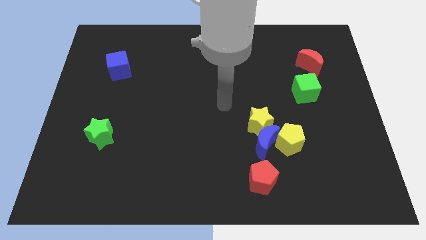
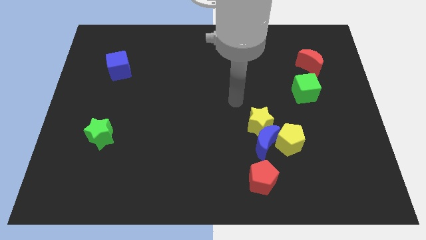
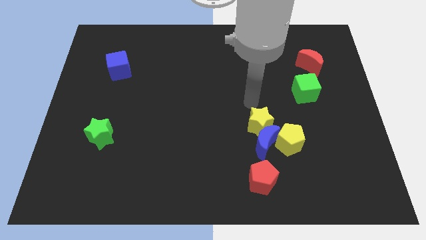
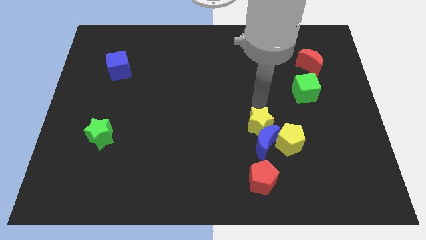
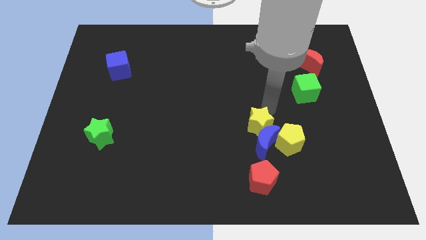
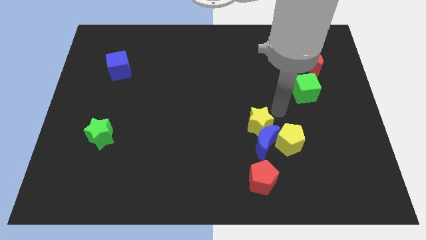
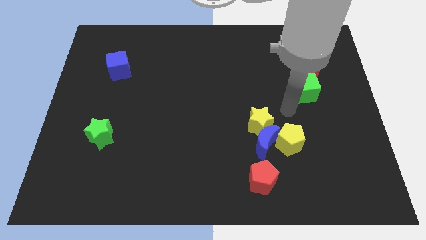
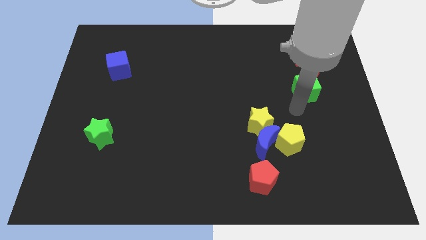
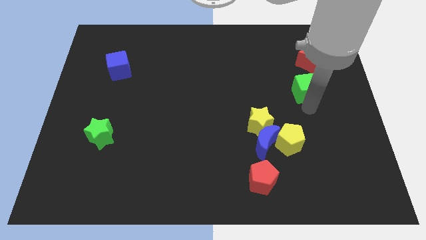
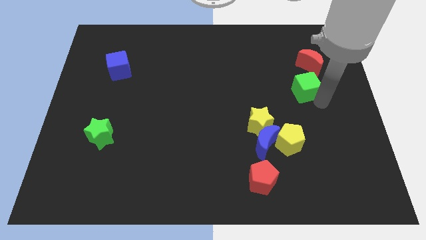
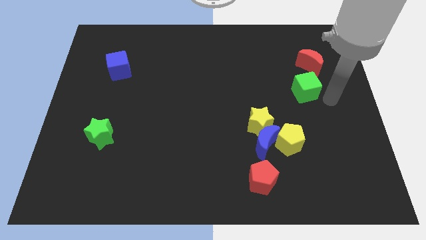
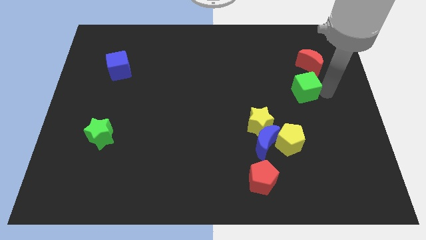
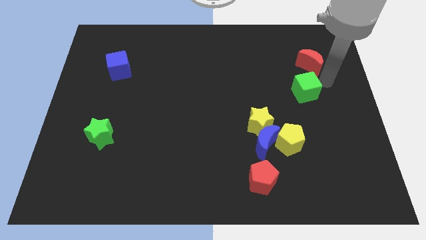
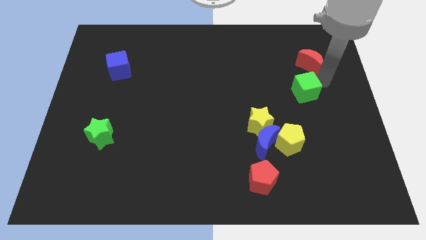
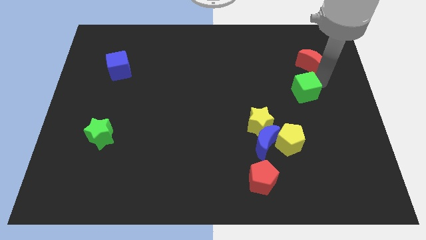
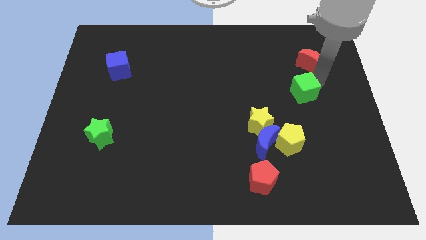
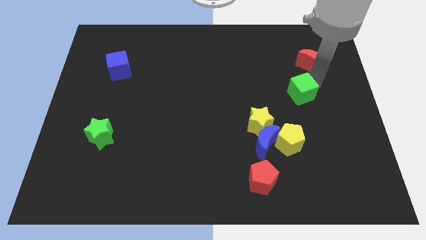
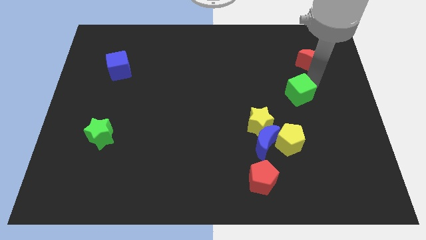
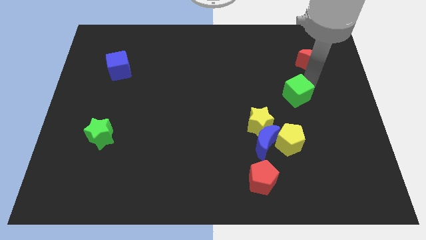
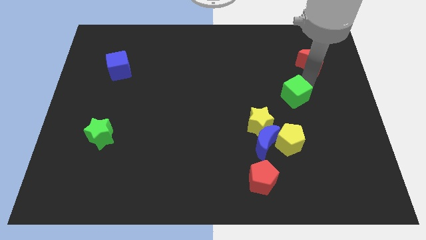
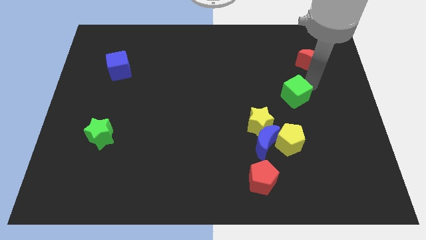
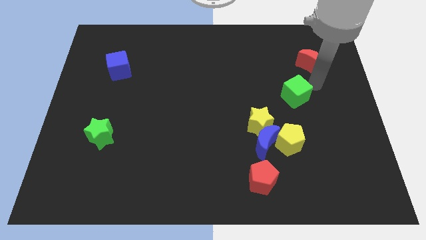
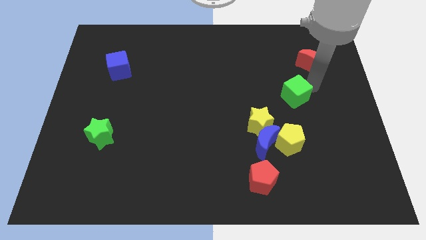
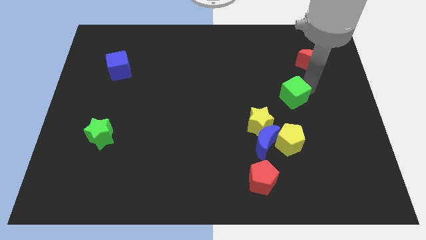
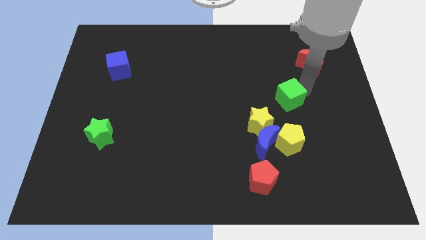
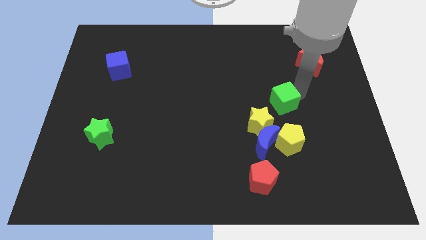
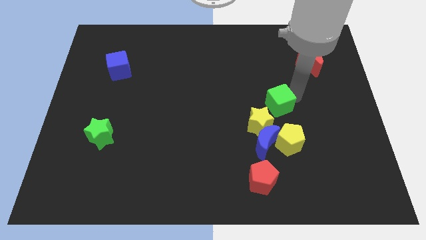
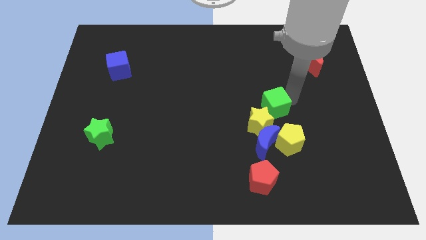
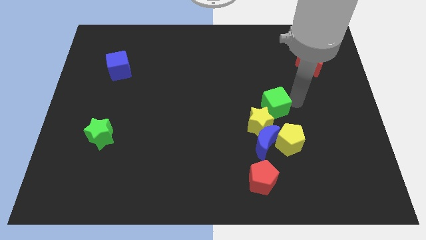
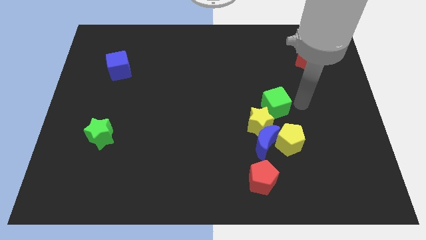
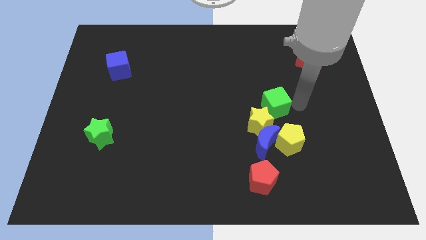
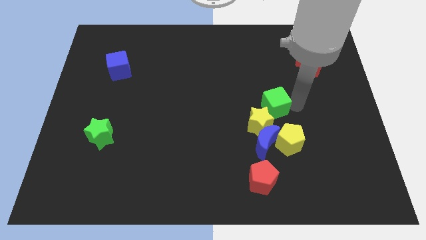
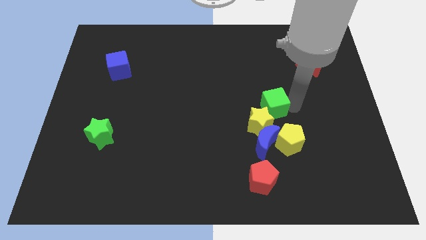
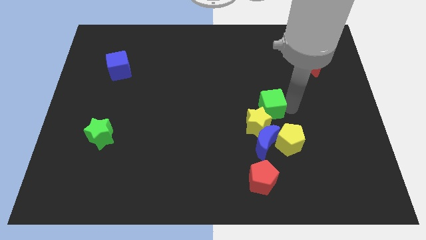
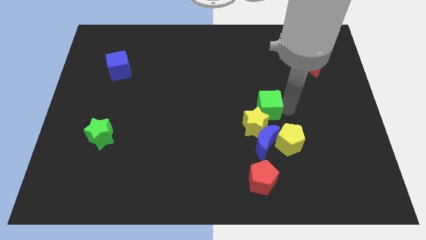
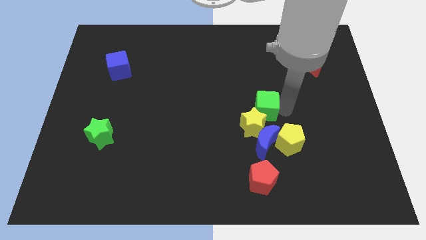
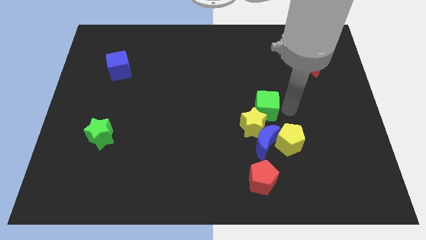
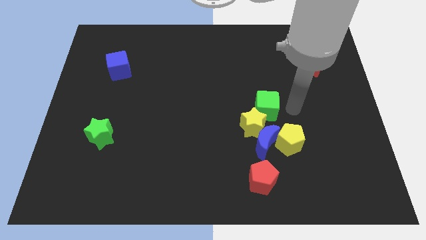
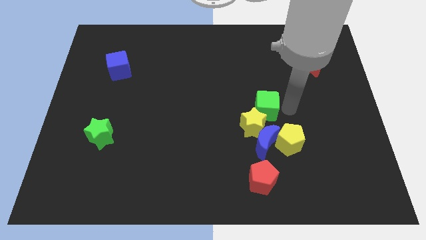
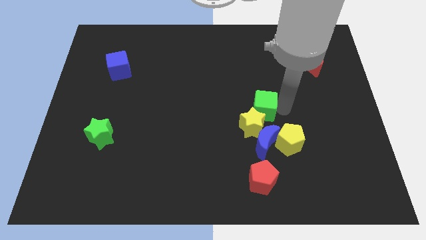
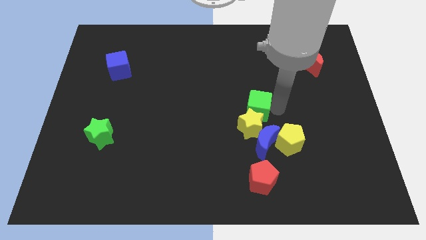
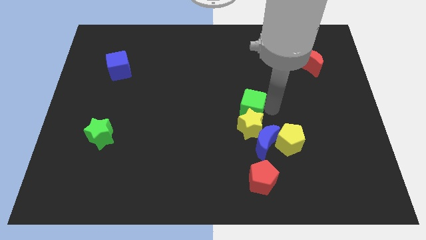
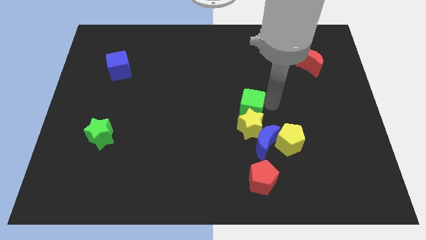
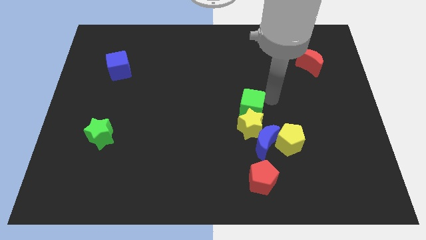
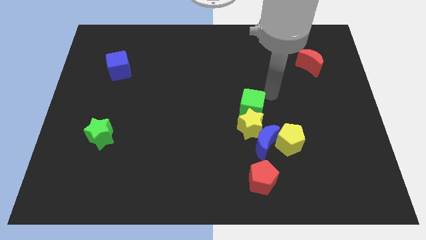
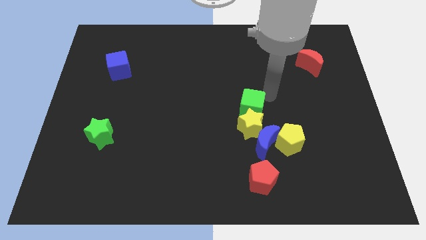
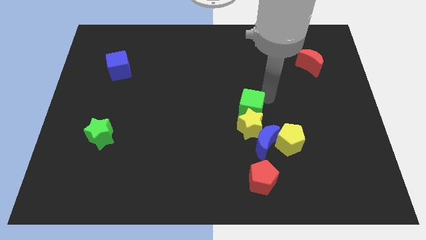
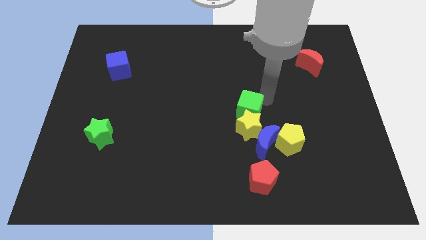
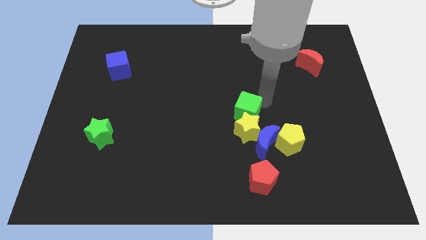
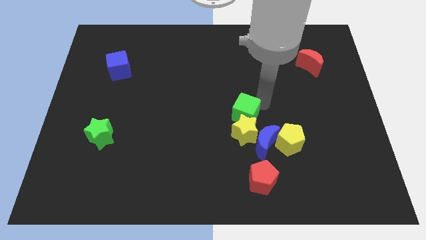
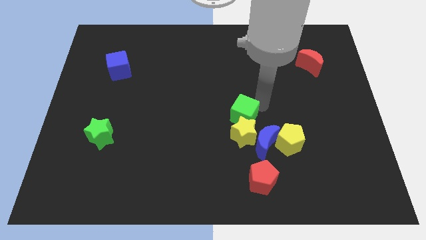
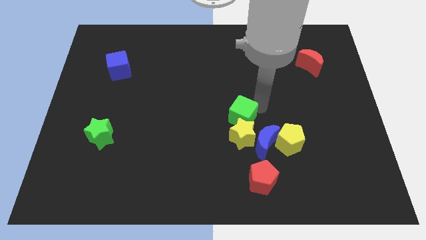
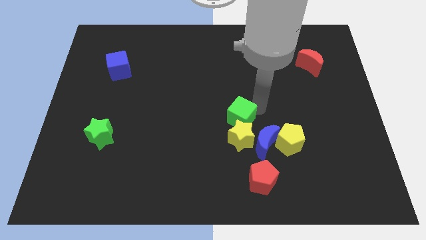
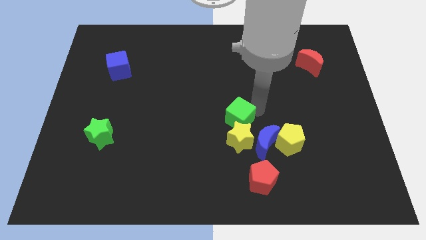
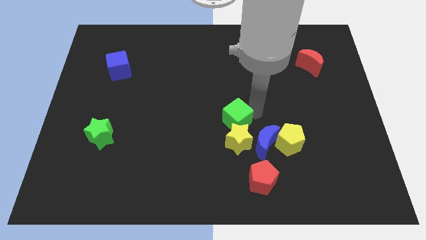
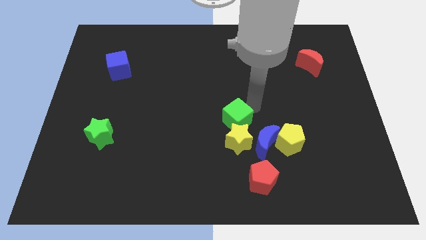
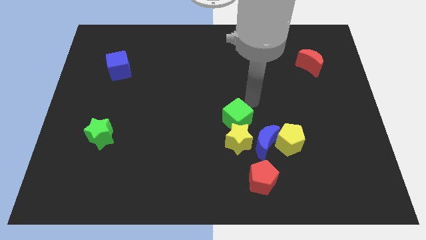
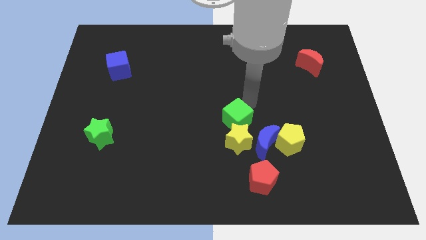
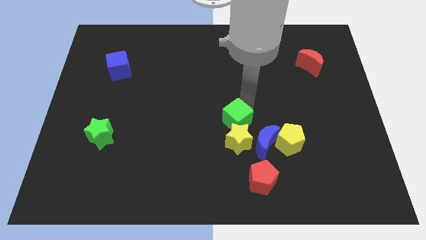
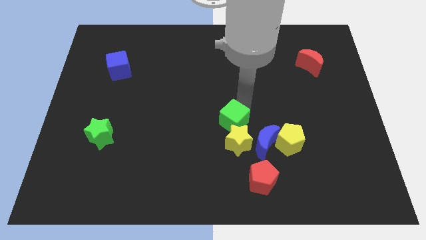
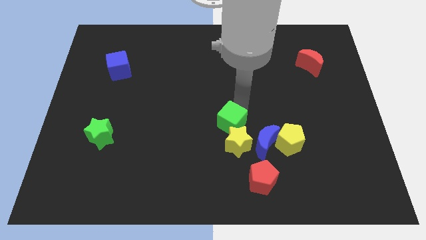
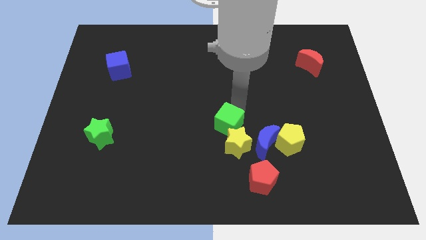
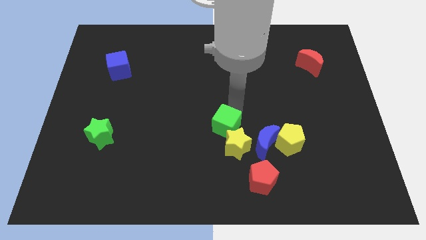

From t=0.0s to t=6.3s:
put the green cube to the left side of the blue moon
